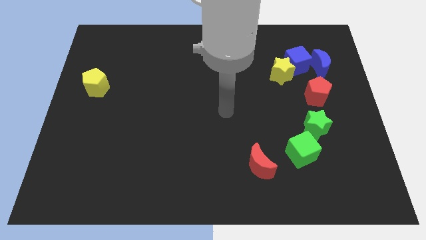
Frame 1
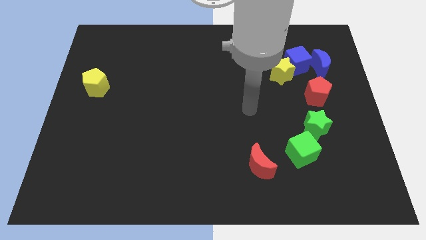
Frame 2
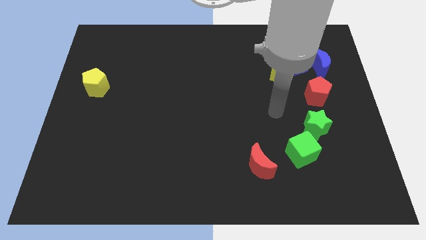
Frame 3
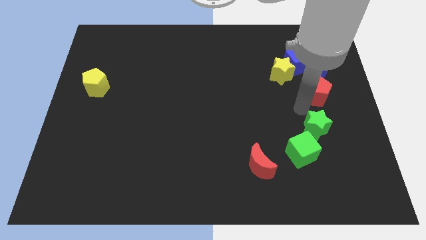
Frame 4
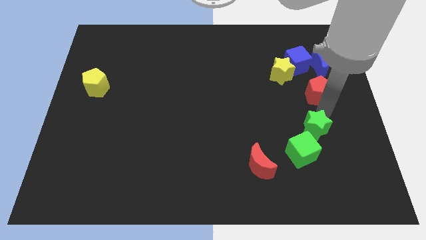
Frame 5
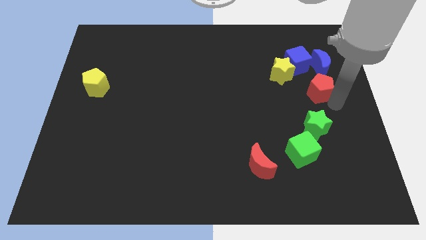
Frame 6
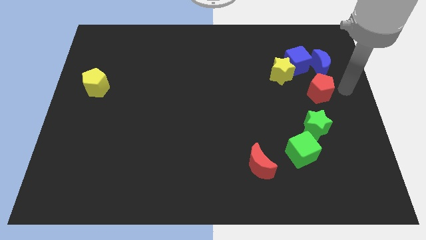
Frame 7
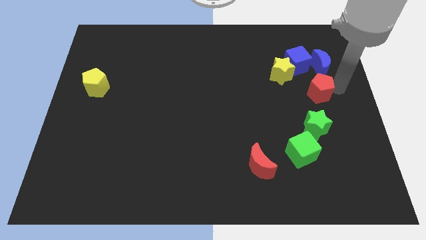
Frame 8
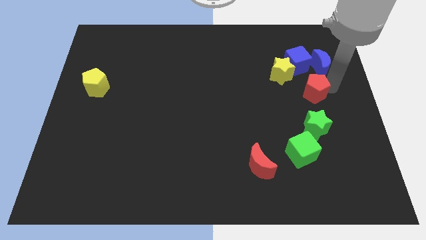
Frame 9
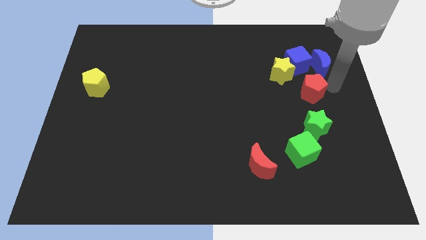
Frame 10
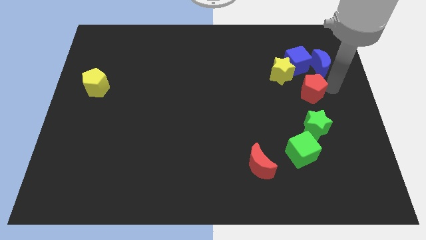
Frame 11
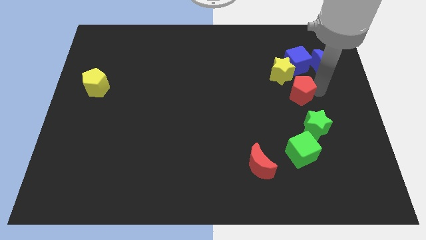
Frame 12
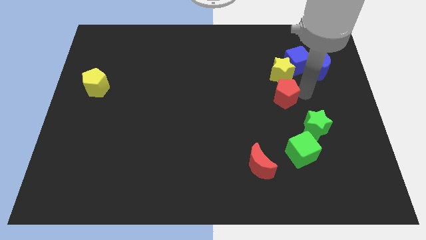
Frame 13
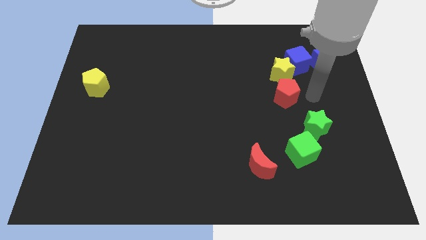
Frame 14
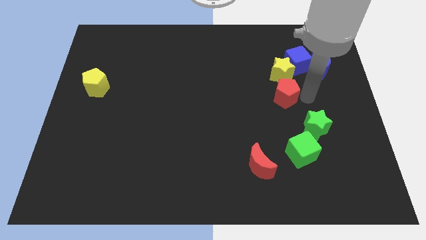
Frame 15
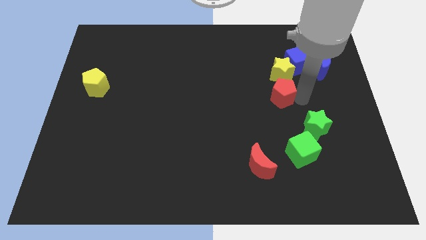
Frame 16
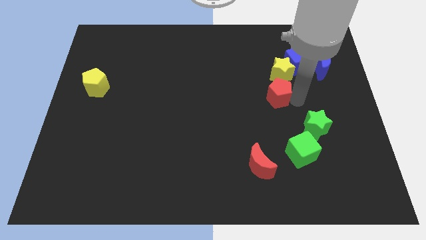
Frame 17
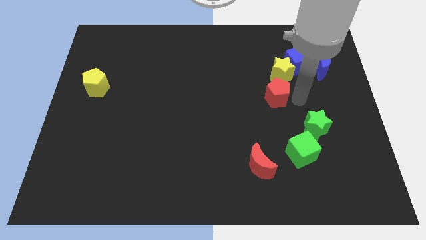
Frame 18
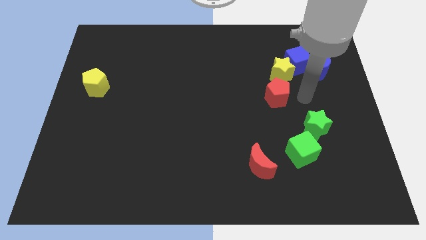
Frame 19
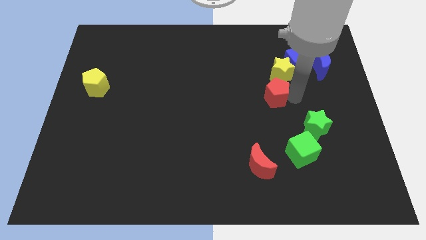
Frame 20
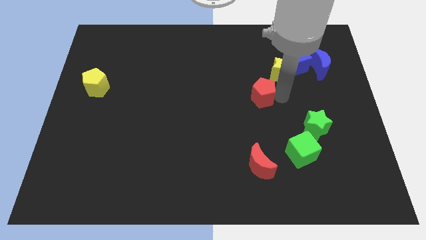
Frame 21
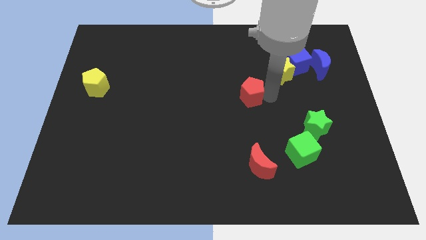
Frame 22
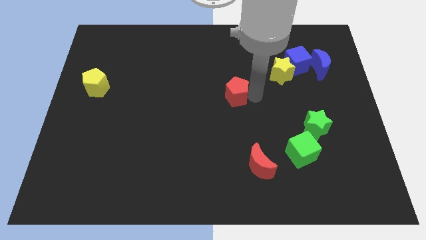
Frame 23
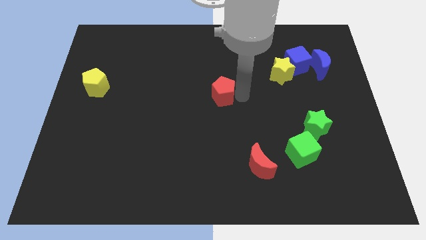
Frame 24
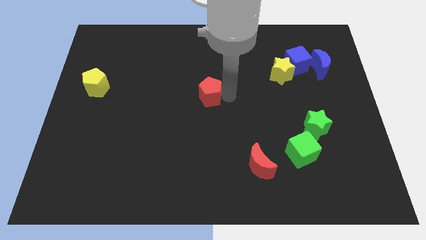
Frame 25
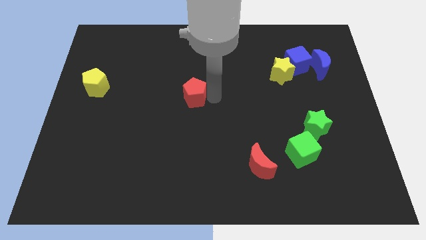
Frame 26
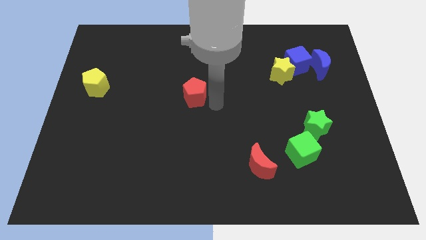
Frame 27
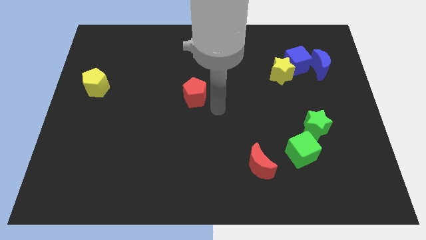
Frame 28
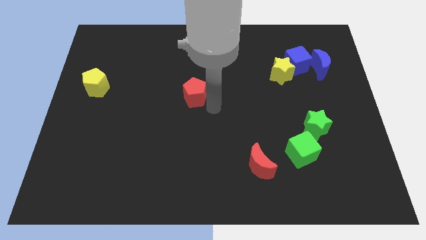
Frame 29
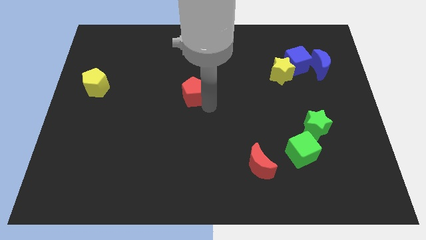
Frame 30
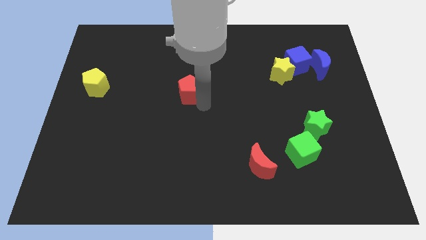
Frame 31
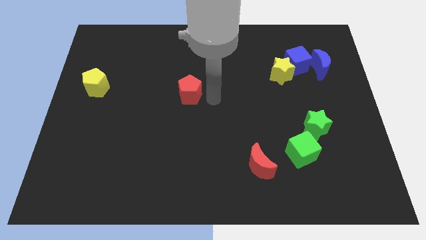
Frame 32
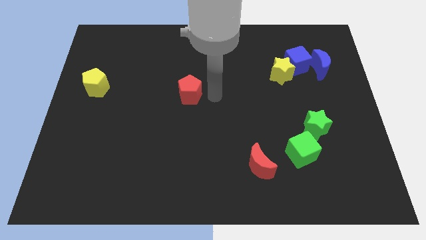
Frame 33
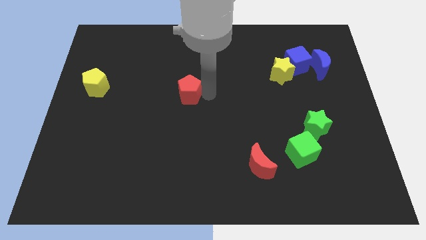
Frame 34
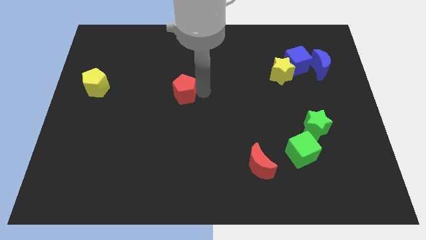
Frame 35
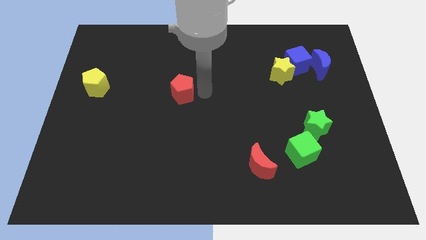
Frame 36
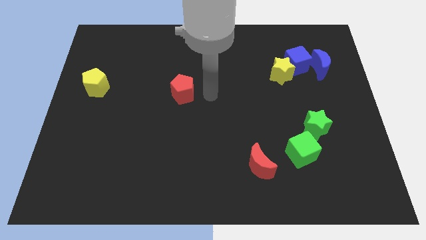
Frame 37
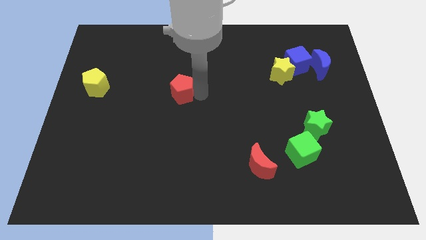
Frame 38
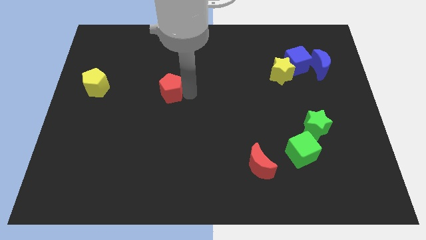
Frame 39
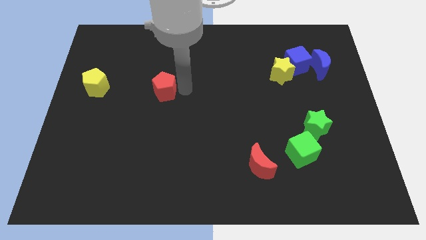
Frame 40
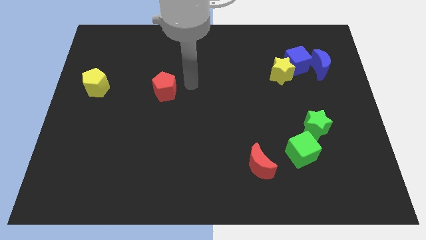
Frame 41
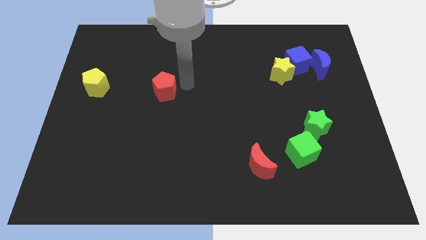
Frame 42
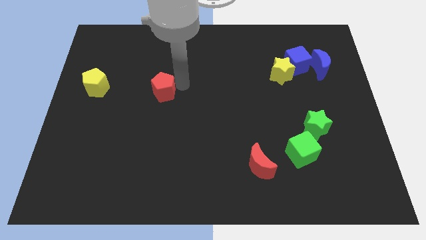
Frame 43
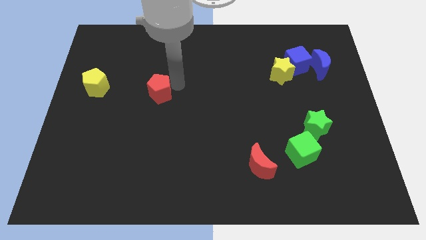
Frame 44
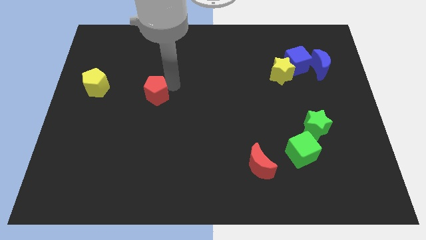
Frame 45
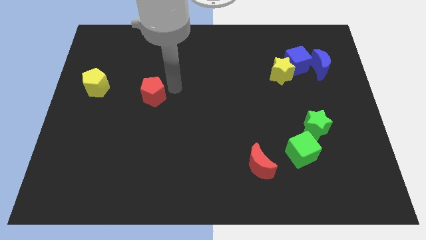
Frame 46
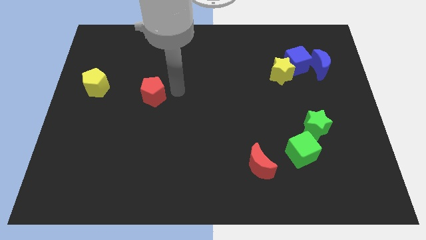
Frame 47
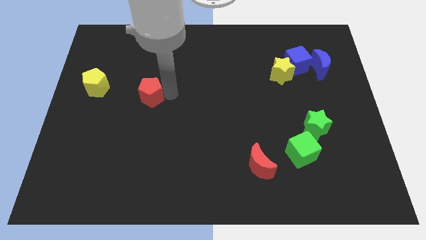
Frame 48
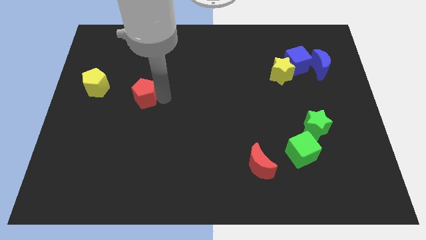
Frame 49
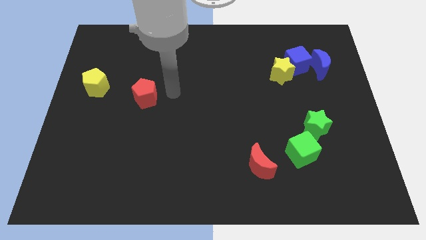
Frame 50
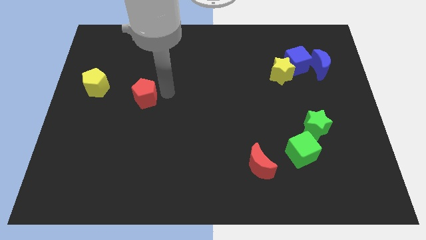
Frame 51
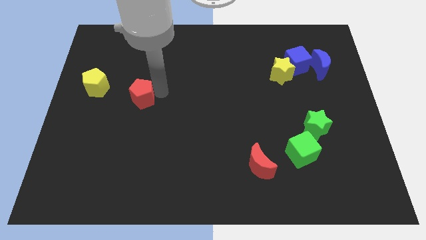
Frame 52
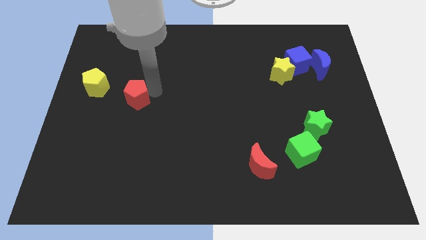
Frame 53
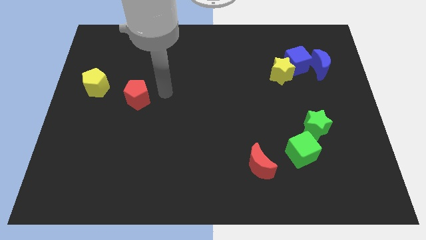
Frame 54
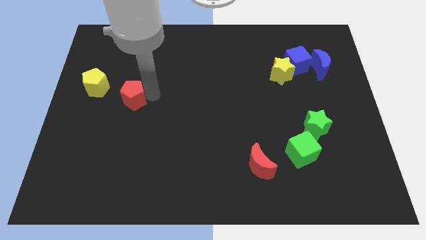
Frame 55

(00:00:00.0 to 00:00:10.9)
move the red pentagon to the bottom right of the yellow pentagon

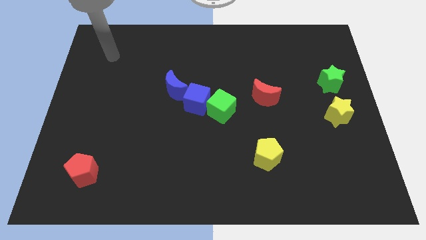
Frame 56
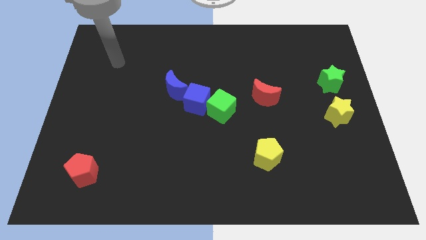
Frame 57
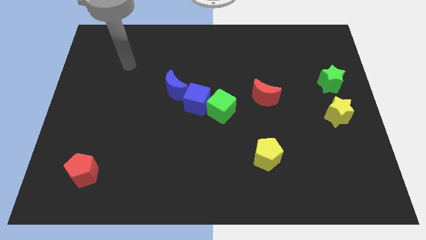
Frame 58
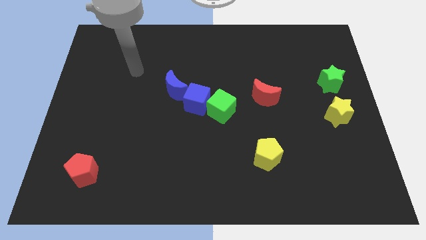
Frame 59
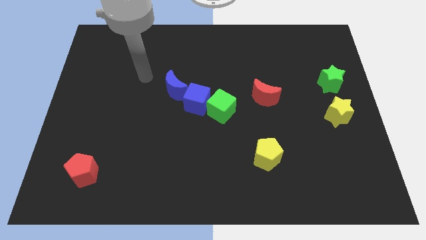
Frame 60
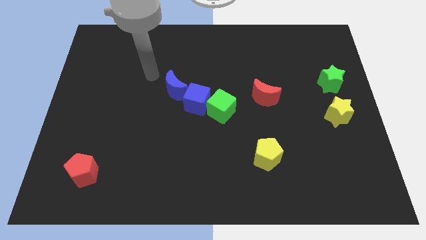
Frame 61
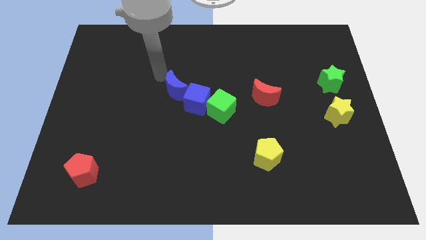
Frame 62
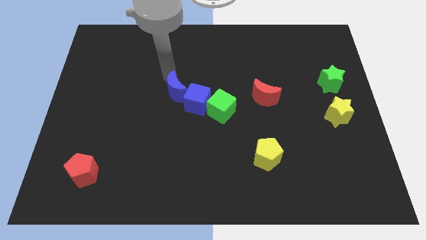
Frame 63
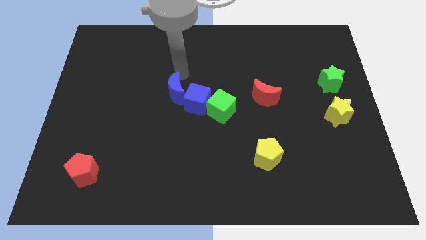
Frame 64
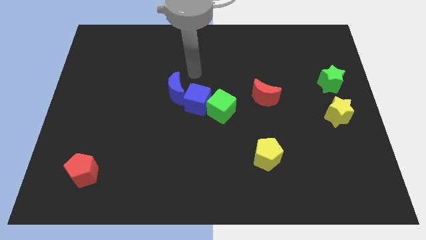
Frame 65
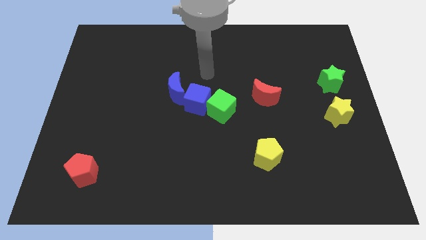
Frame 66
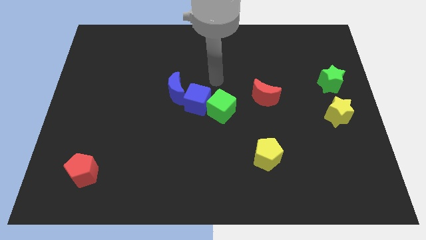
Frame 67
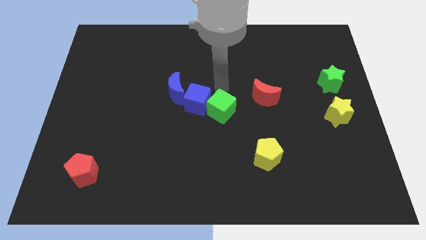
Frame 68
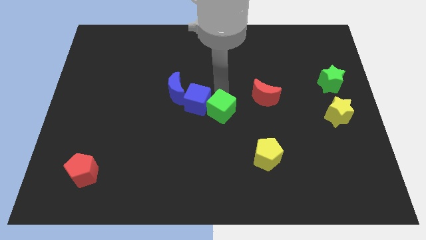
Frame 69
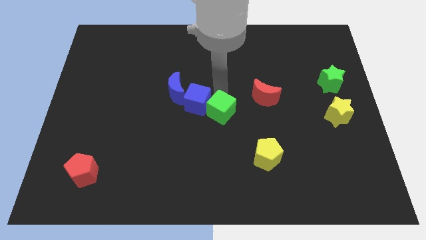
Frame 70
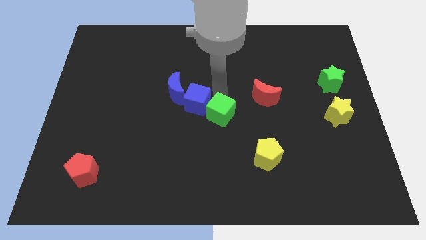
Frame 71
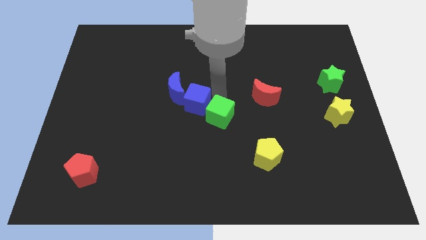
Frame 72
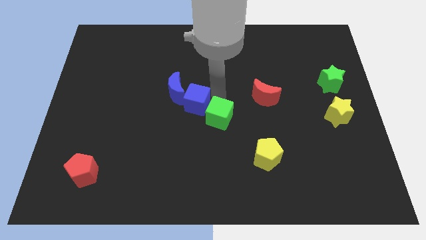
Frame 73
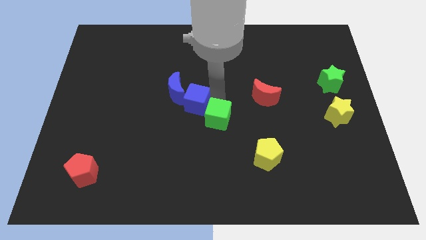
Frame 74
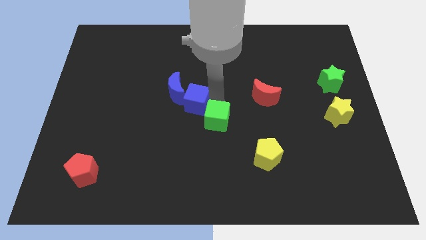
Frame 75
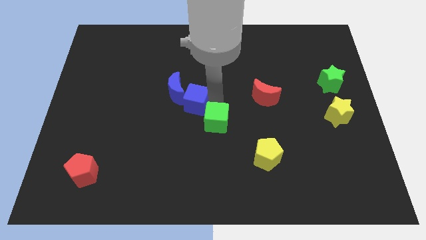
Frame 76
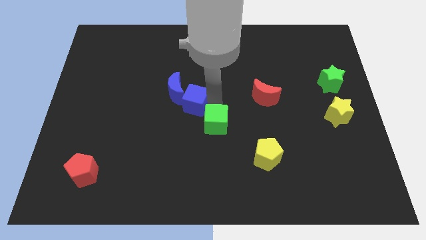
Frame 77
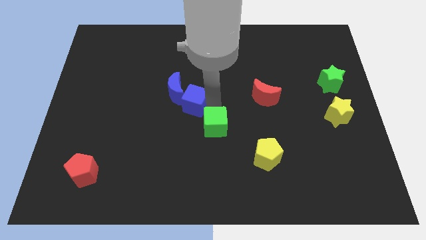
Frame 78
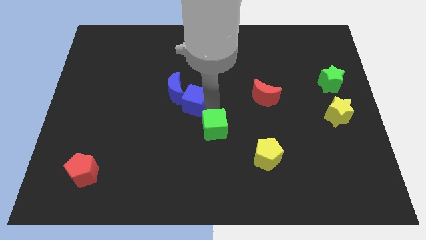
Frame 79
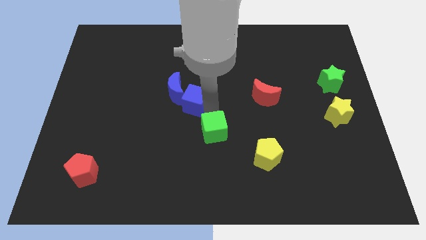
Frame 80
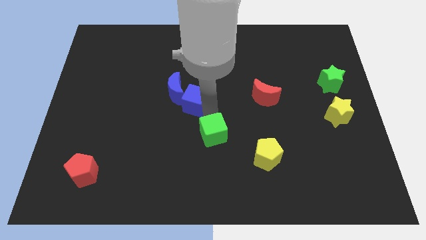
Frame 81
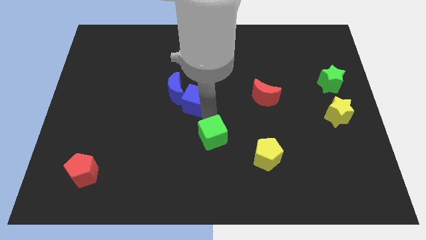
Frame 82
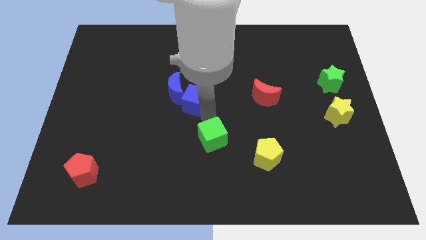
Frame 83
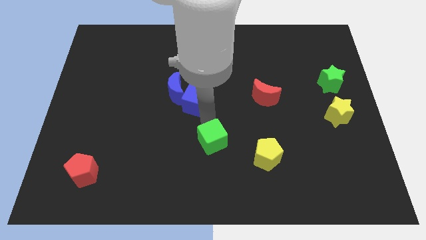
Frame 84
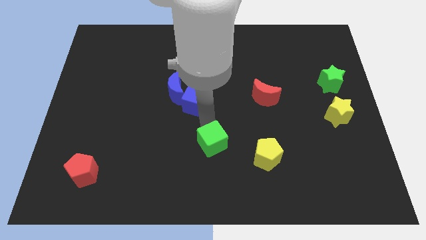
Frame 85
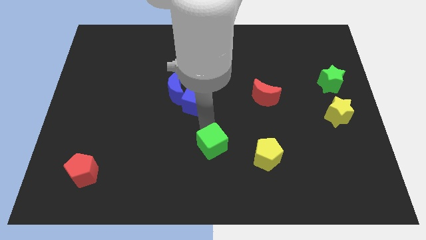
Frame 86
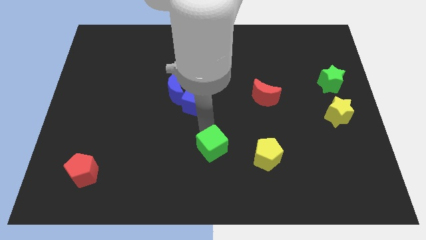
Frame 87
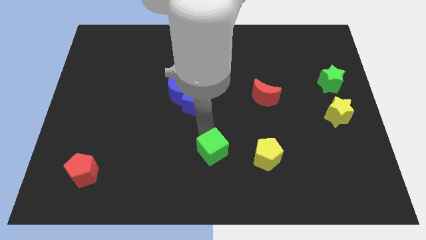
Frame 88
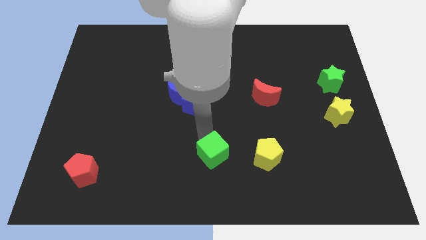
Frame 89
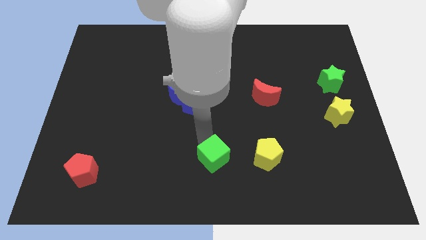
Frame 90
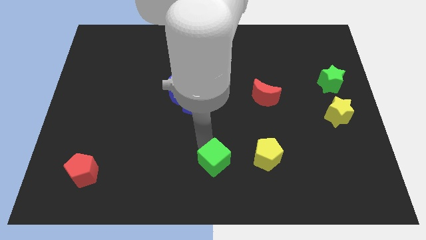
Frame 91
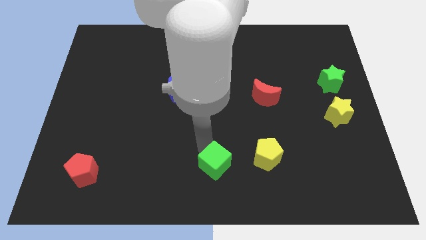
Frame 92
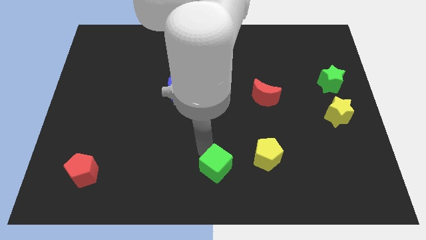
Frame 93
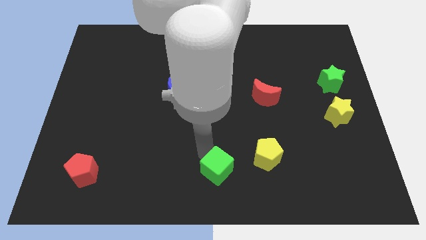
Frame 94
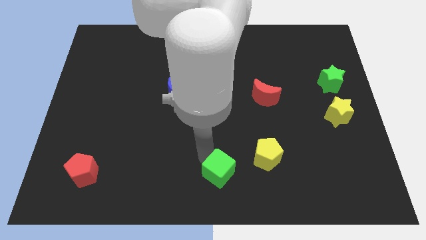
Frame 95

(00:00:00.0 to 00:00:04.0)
slide the green cube to the bottom left side of the yellow pentagon
